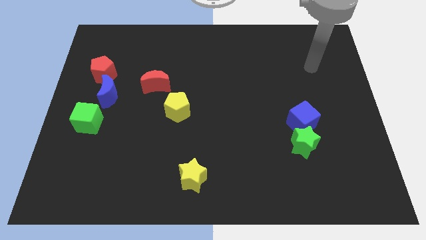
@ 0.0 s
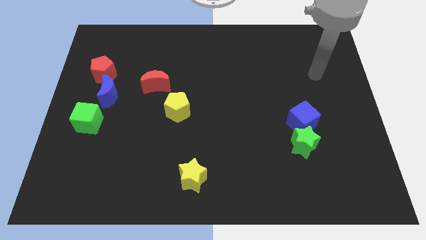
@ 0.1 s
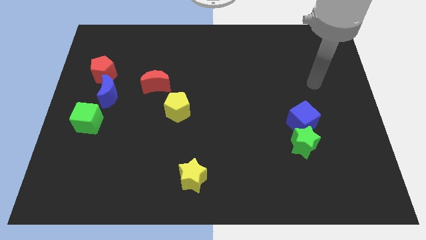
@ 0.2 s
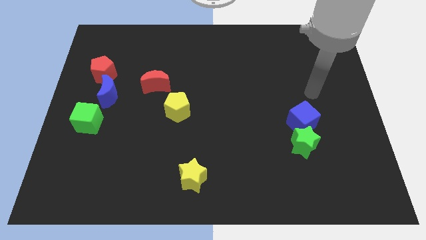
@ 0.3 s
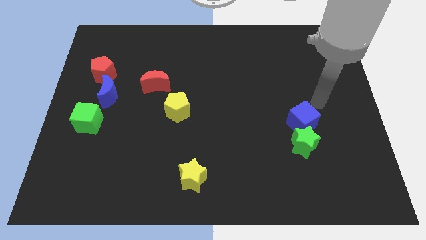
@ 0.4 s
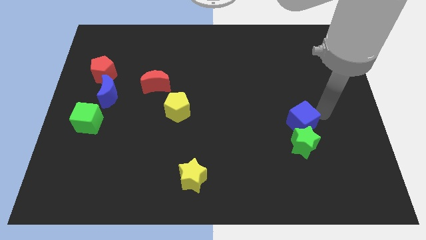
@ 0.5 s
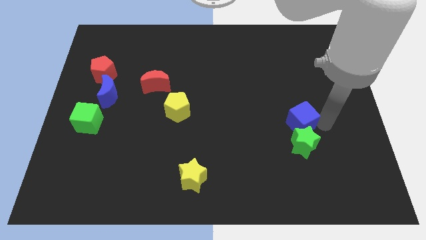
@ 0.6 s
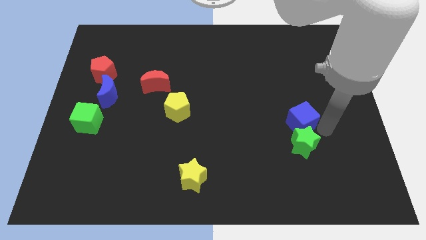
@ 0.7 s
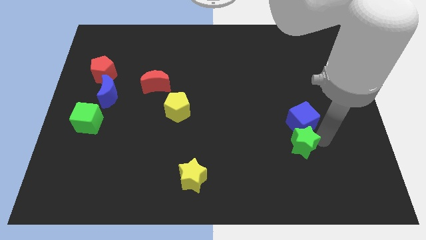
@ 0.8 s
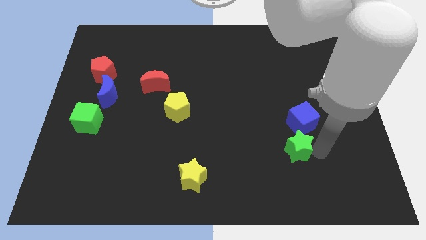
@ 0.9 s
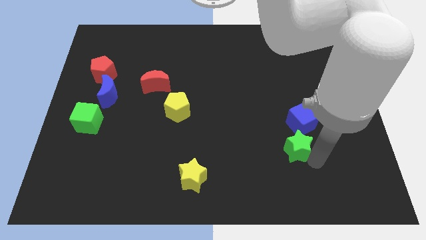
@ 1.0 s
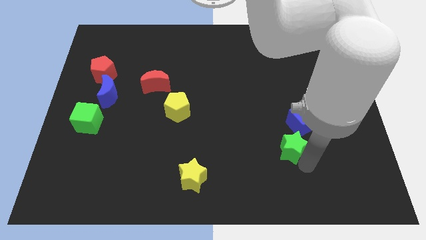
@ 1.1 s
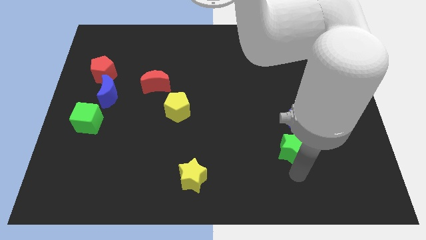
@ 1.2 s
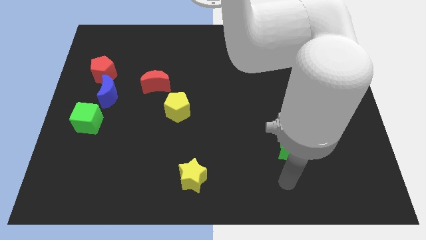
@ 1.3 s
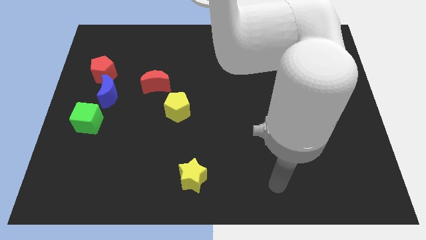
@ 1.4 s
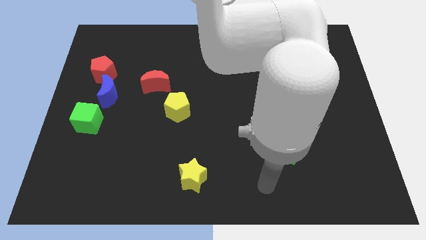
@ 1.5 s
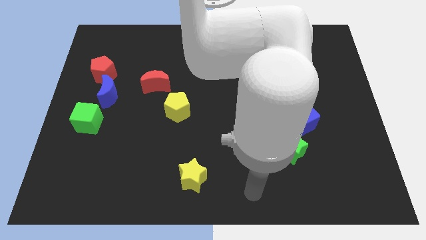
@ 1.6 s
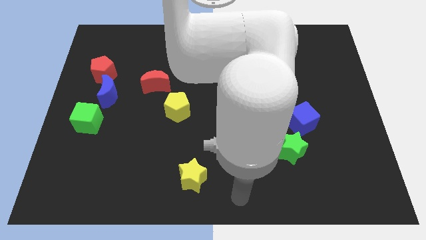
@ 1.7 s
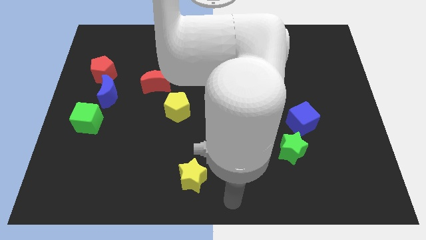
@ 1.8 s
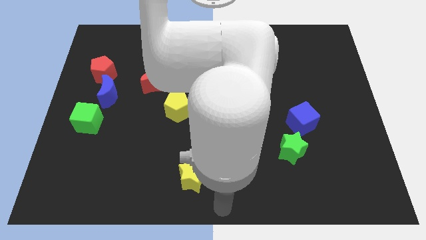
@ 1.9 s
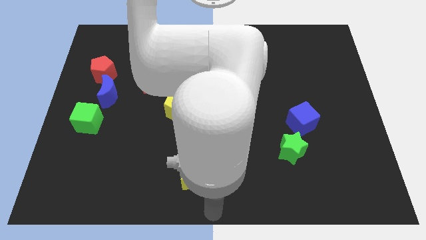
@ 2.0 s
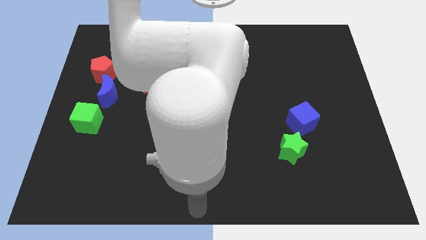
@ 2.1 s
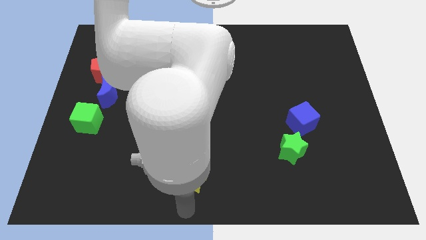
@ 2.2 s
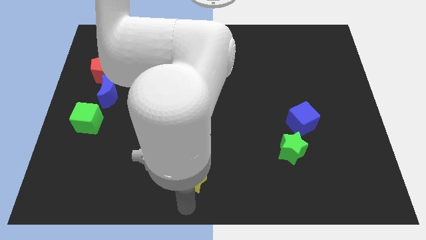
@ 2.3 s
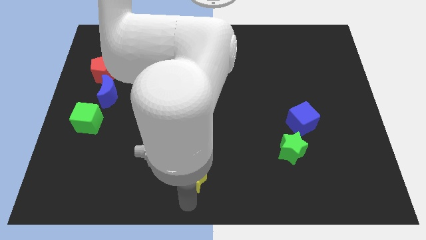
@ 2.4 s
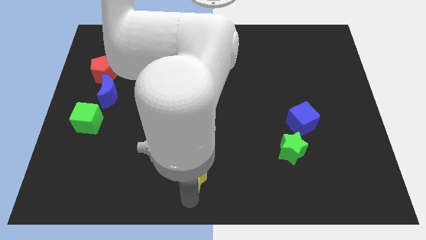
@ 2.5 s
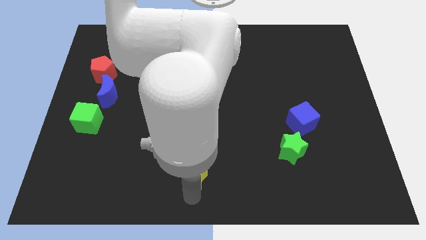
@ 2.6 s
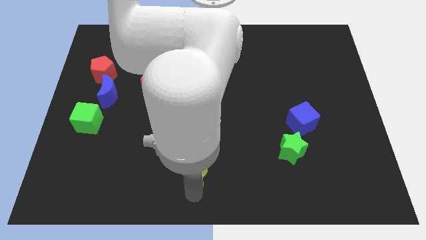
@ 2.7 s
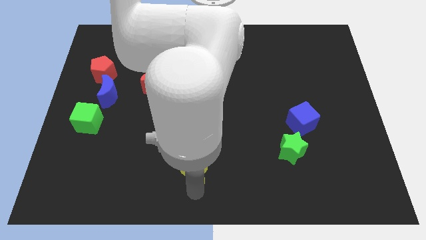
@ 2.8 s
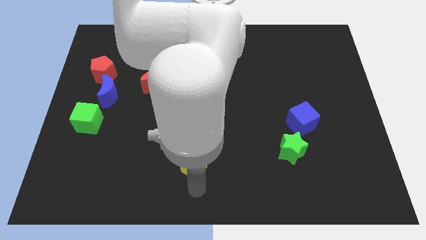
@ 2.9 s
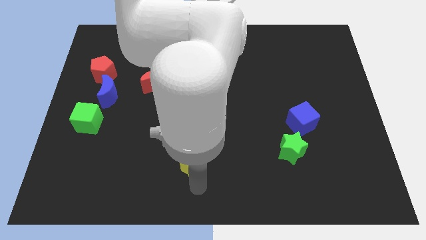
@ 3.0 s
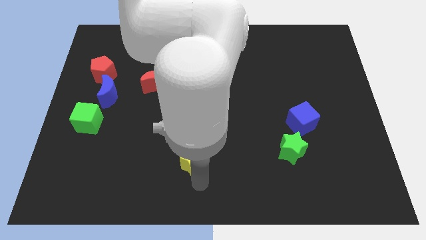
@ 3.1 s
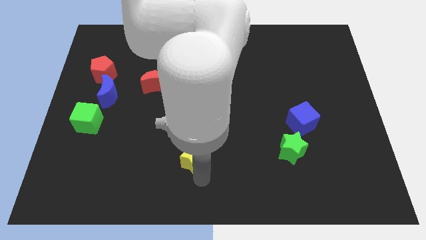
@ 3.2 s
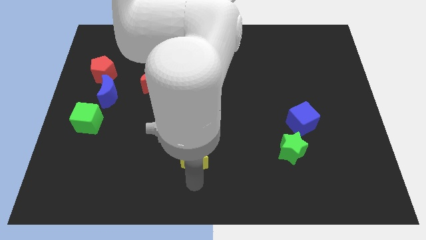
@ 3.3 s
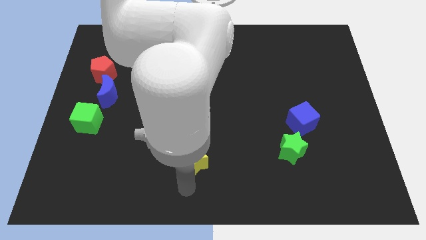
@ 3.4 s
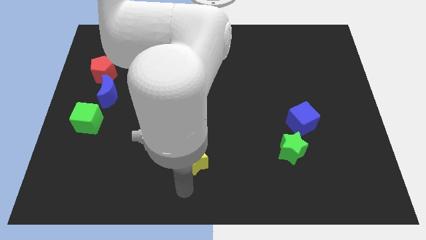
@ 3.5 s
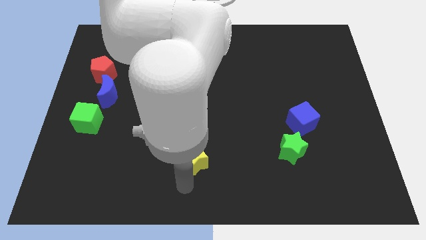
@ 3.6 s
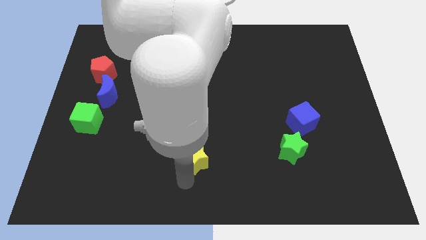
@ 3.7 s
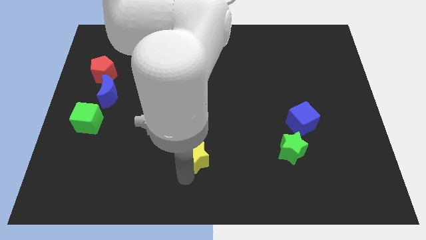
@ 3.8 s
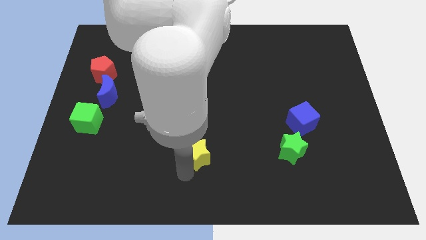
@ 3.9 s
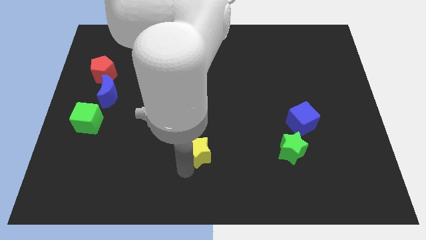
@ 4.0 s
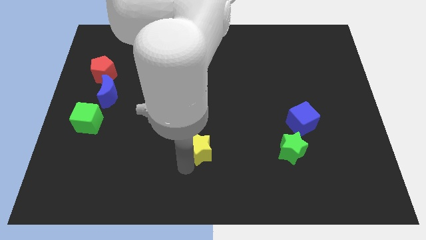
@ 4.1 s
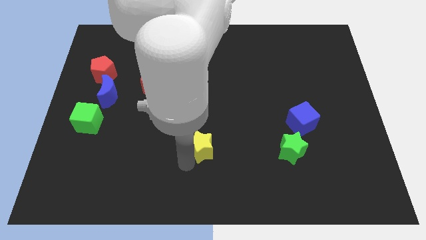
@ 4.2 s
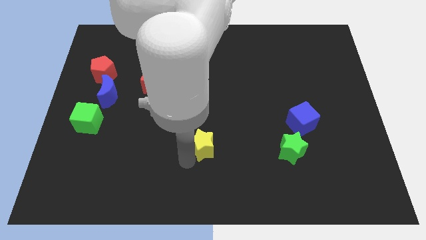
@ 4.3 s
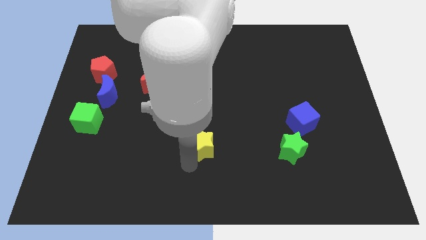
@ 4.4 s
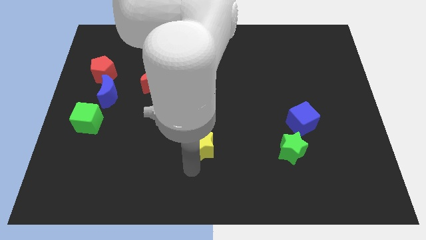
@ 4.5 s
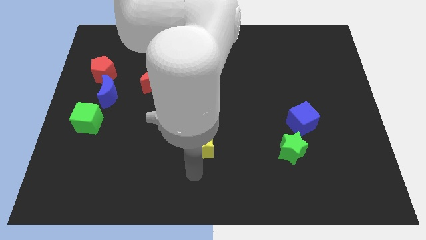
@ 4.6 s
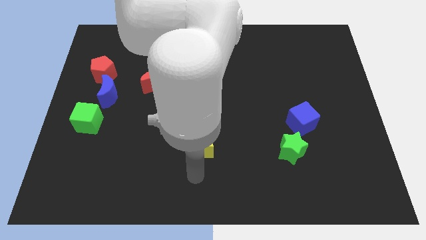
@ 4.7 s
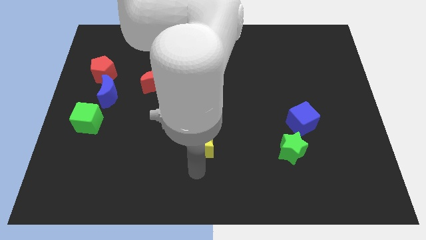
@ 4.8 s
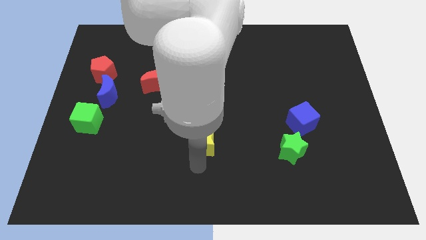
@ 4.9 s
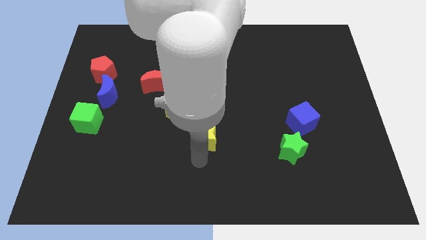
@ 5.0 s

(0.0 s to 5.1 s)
push the yellow star to the center

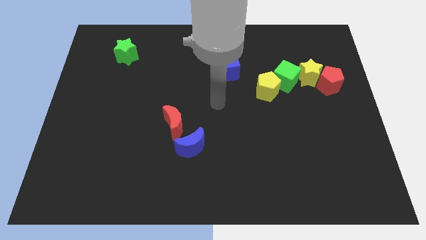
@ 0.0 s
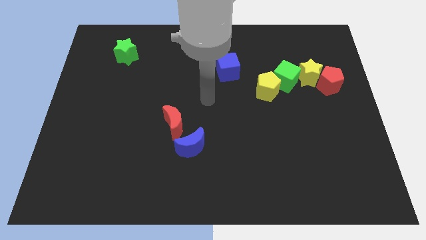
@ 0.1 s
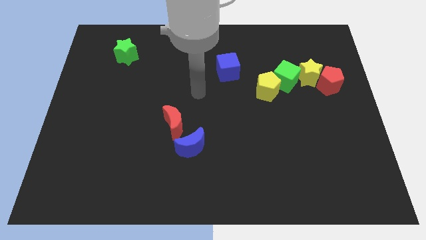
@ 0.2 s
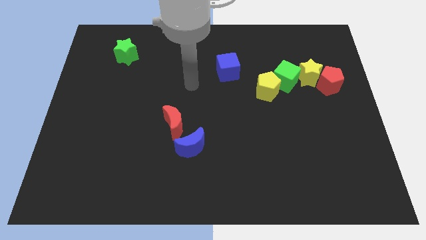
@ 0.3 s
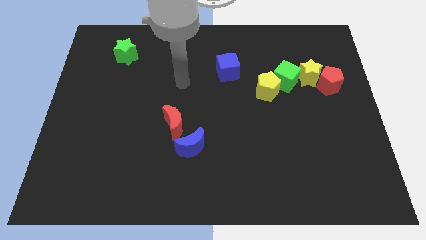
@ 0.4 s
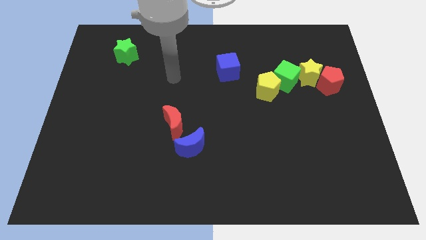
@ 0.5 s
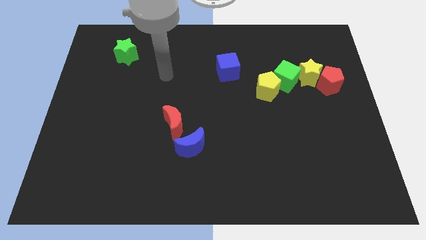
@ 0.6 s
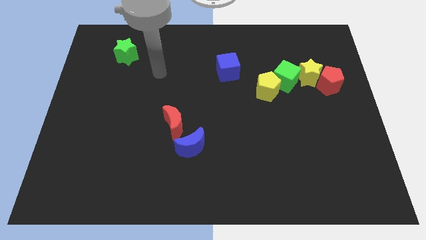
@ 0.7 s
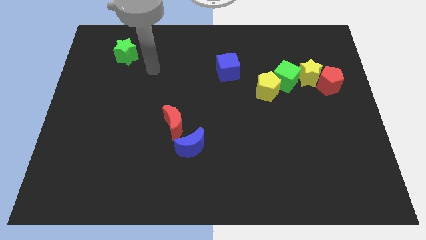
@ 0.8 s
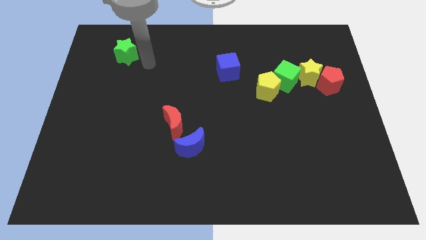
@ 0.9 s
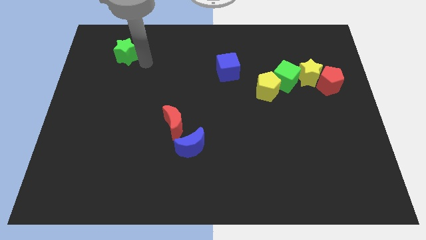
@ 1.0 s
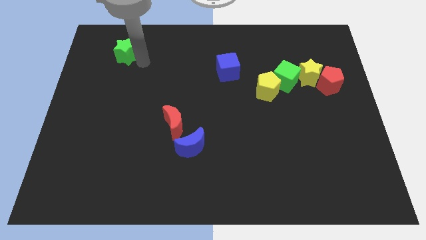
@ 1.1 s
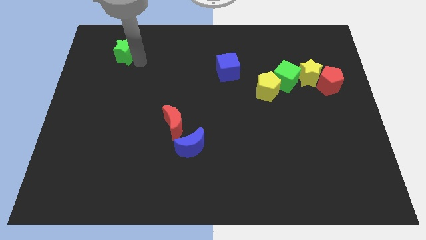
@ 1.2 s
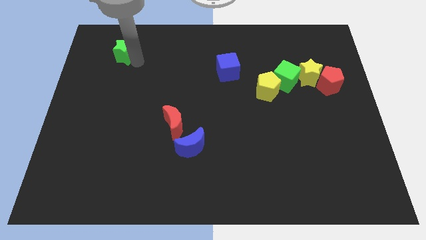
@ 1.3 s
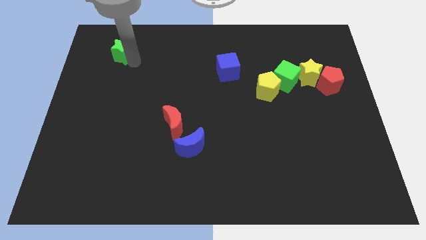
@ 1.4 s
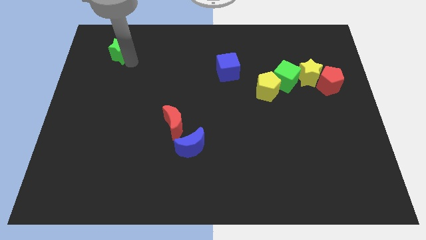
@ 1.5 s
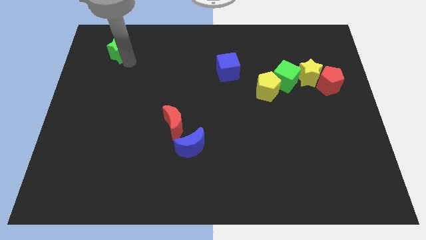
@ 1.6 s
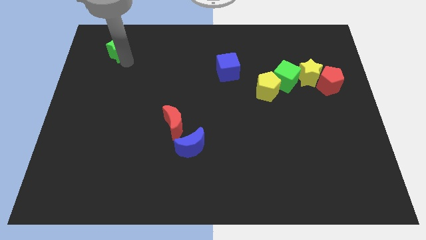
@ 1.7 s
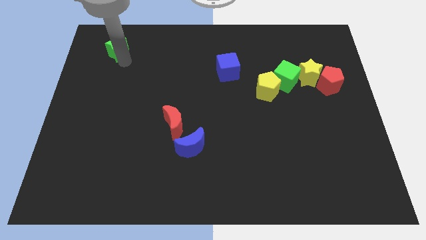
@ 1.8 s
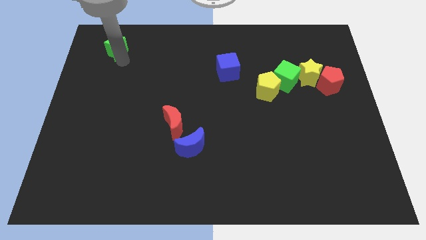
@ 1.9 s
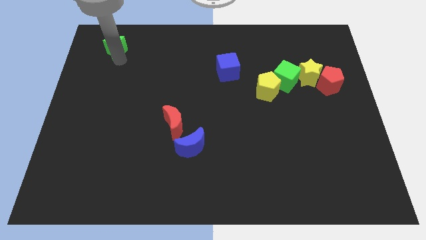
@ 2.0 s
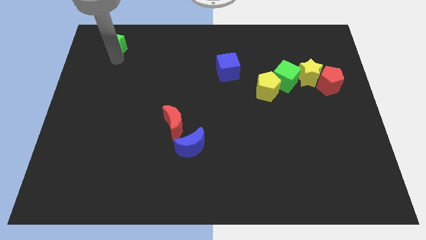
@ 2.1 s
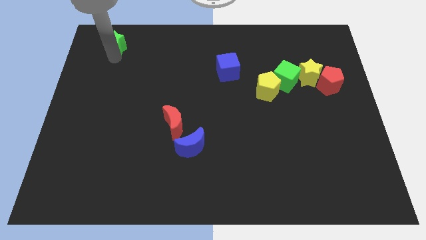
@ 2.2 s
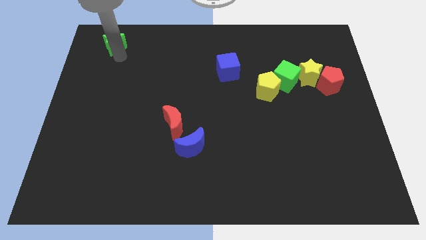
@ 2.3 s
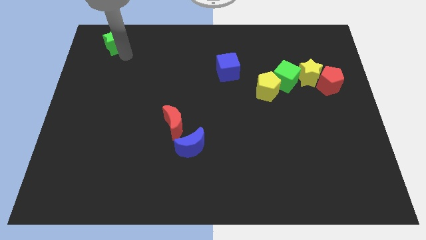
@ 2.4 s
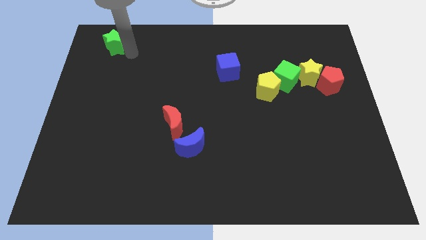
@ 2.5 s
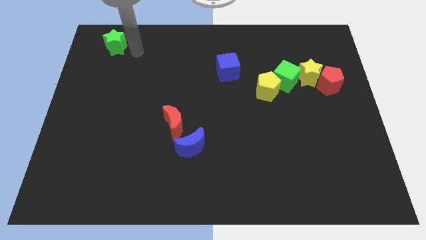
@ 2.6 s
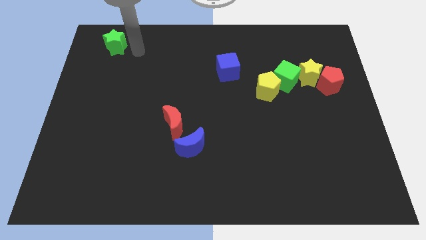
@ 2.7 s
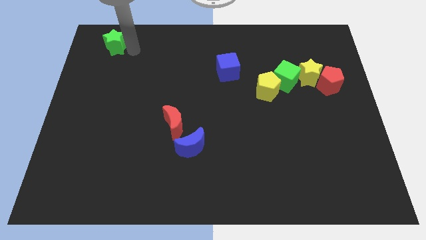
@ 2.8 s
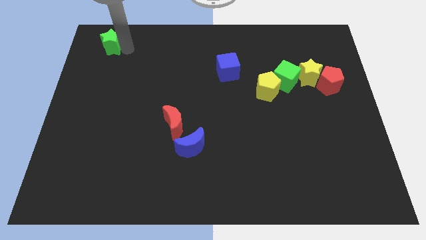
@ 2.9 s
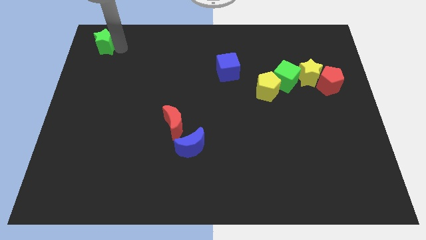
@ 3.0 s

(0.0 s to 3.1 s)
move the green star to the top left of the board
